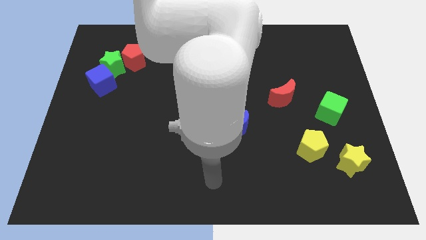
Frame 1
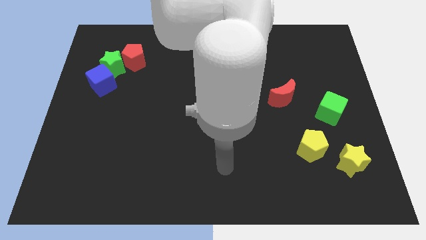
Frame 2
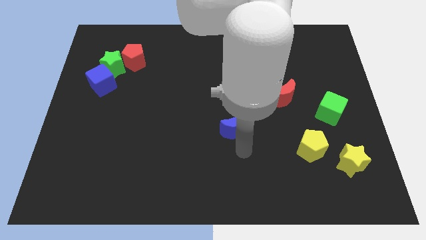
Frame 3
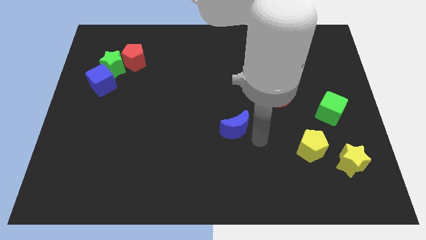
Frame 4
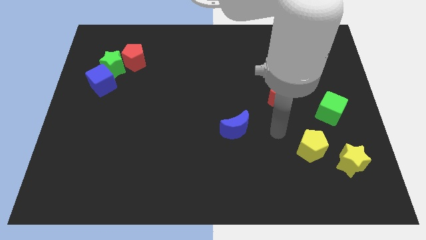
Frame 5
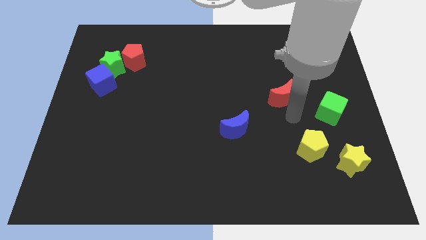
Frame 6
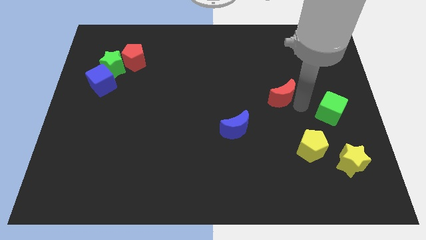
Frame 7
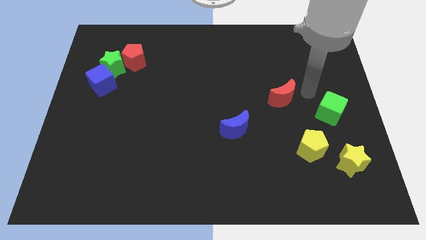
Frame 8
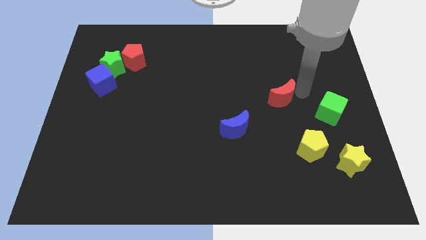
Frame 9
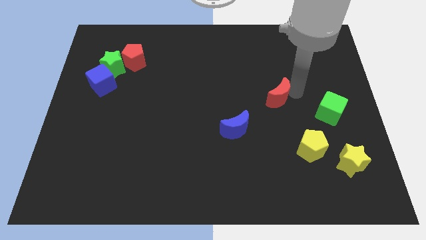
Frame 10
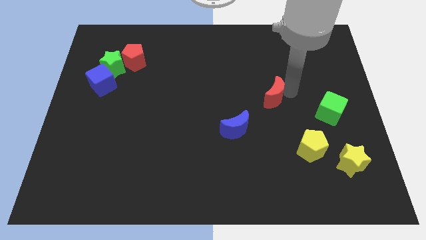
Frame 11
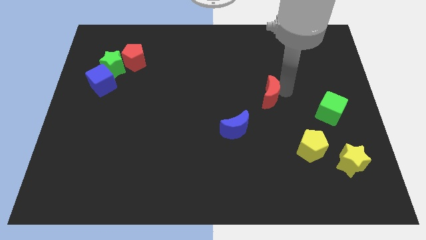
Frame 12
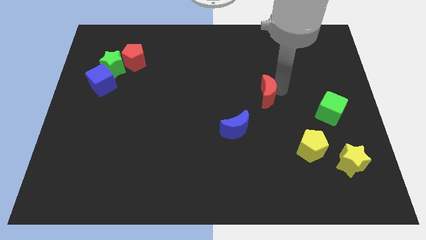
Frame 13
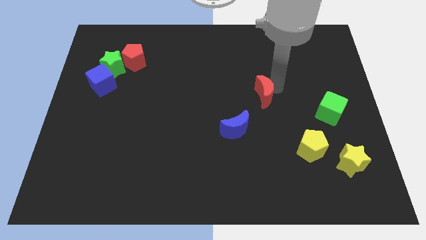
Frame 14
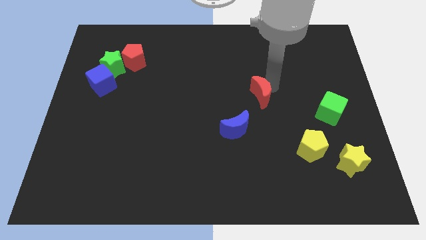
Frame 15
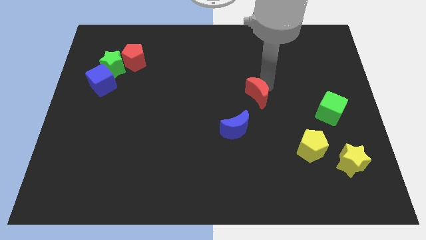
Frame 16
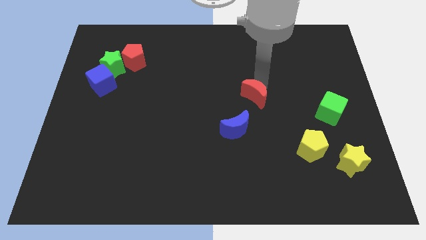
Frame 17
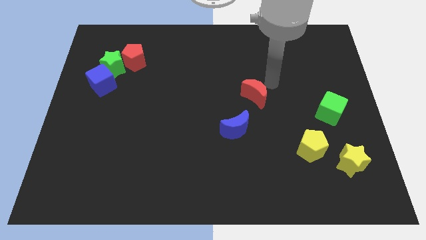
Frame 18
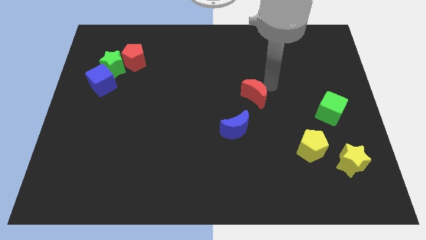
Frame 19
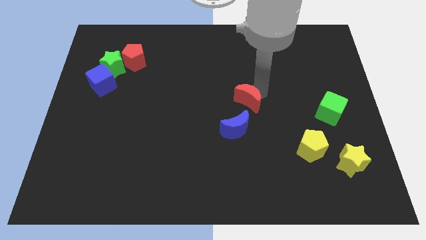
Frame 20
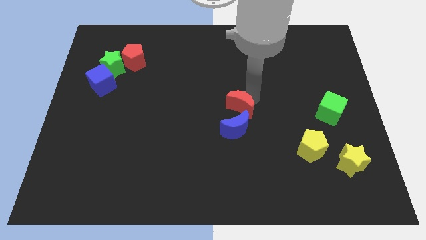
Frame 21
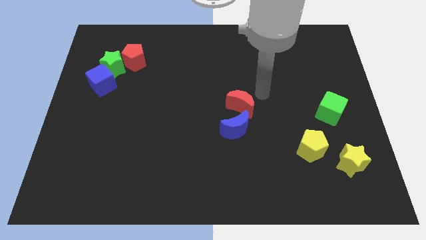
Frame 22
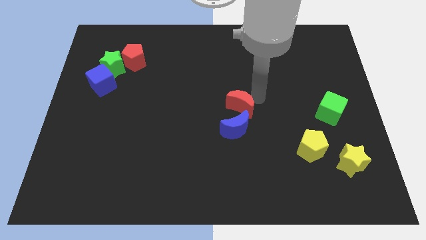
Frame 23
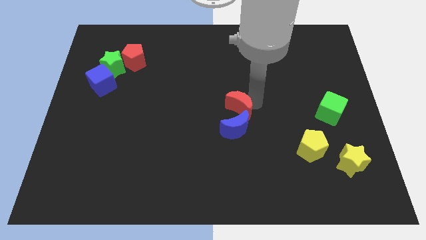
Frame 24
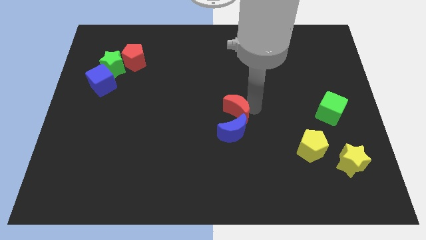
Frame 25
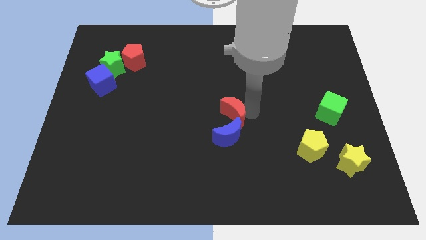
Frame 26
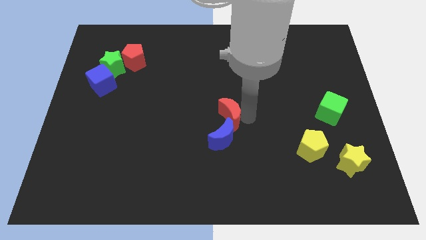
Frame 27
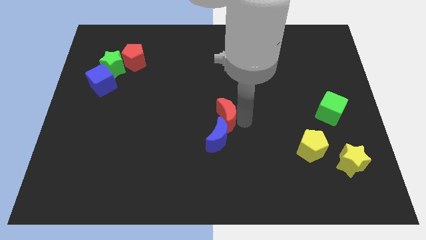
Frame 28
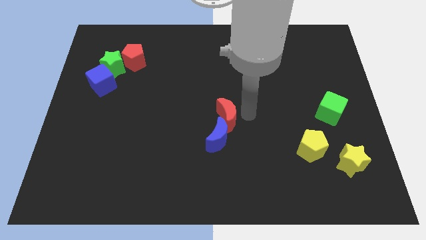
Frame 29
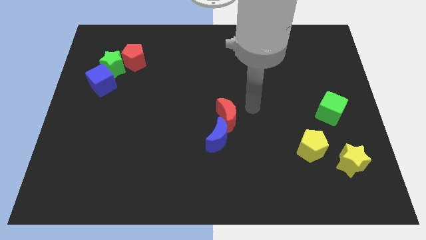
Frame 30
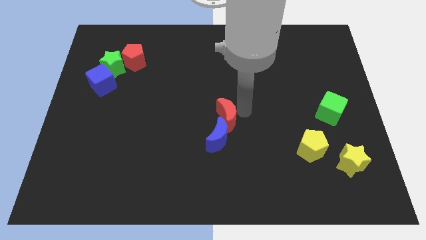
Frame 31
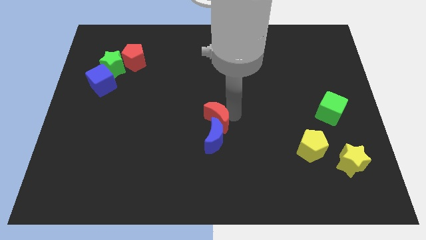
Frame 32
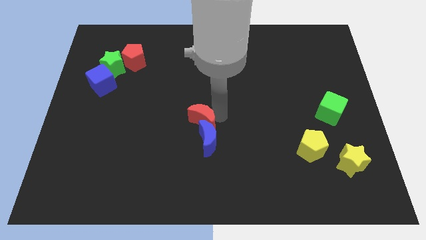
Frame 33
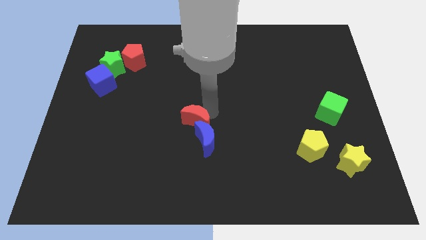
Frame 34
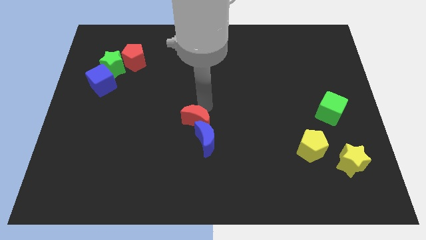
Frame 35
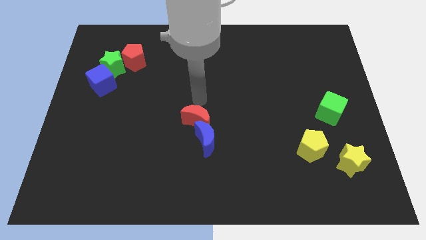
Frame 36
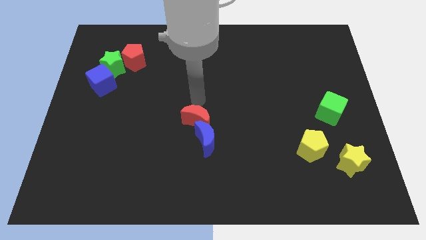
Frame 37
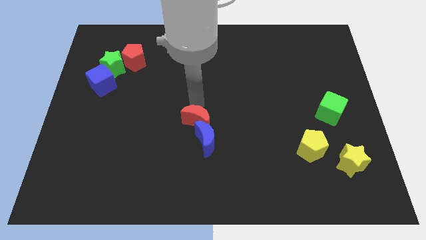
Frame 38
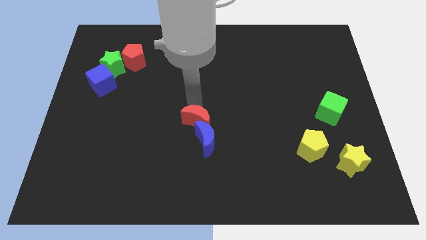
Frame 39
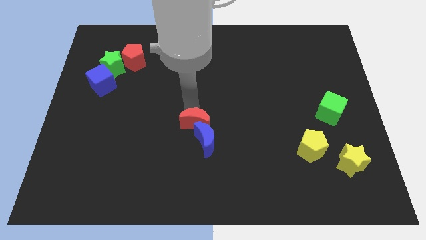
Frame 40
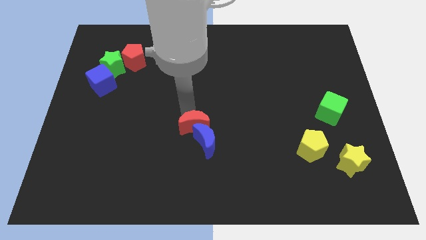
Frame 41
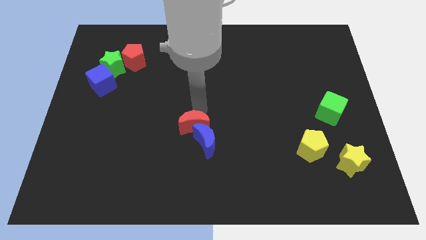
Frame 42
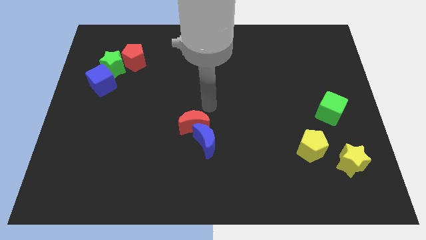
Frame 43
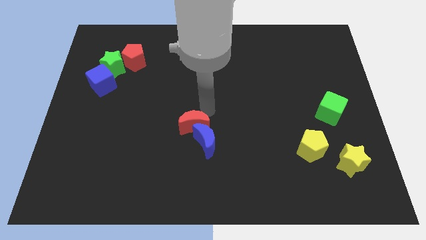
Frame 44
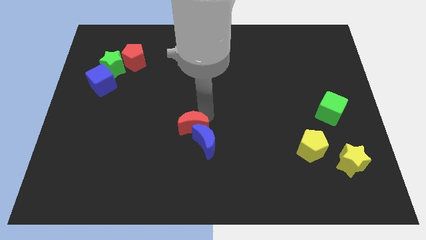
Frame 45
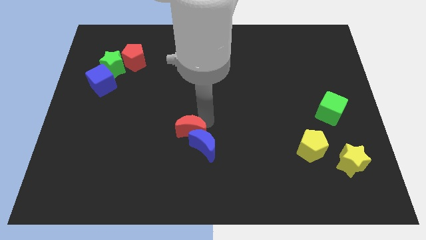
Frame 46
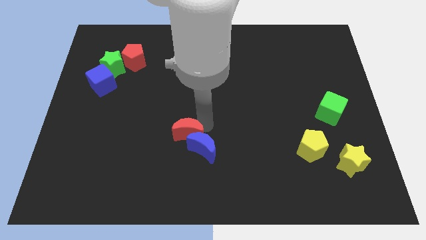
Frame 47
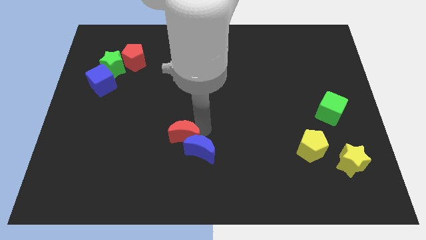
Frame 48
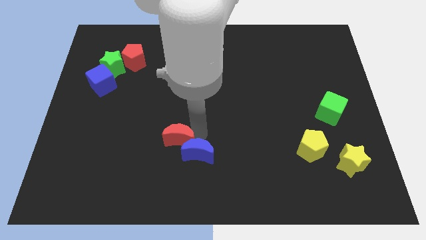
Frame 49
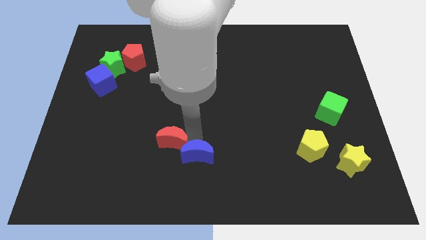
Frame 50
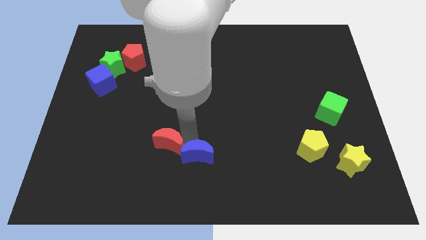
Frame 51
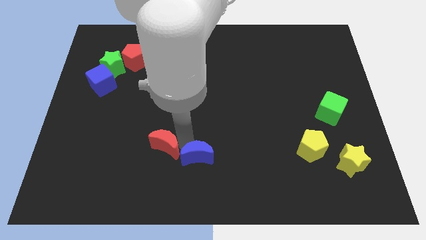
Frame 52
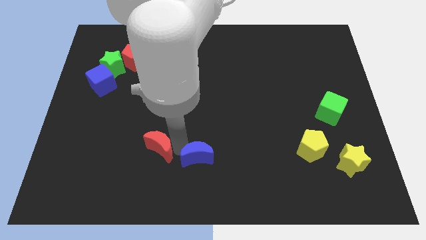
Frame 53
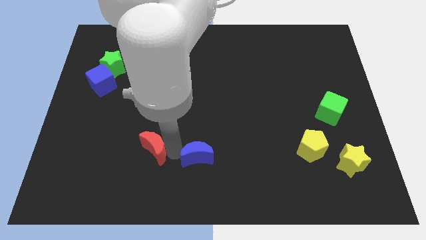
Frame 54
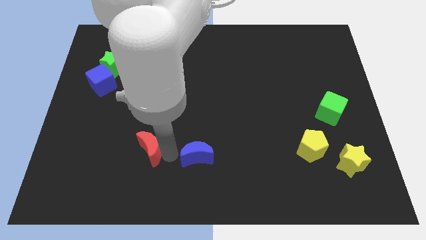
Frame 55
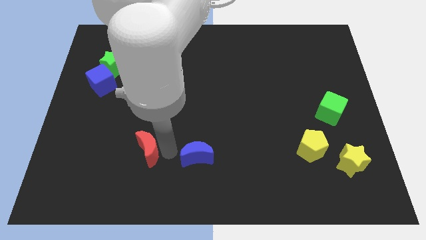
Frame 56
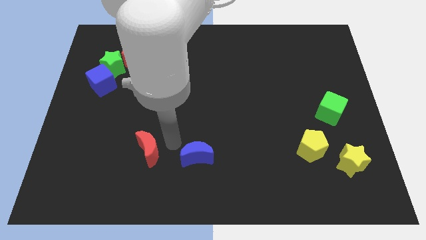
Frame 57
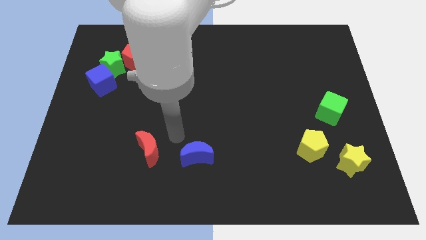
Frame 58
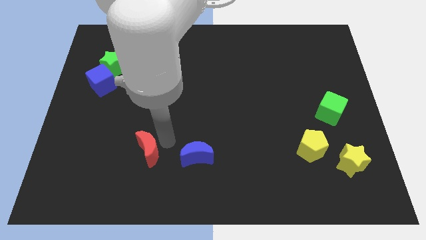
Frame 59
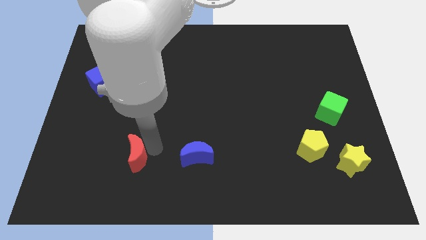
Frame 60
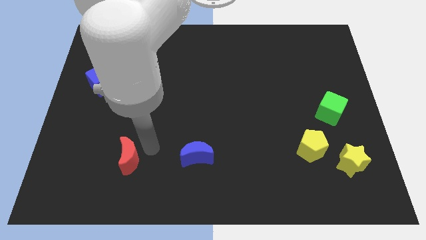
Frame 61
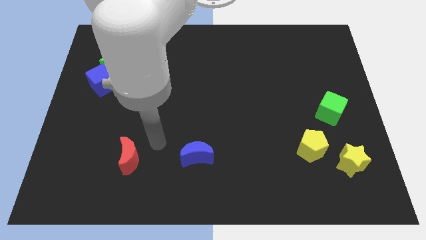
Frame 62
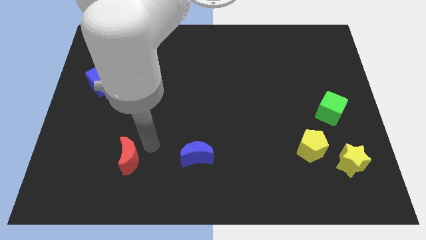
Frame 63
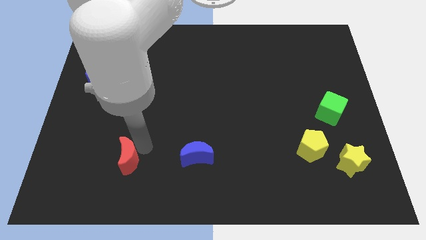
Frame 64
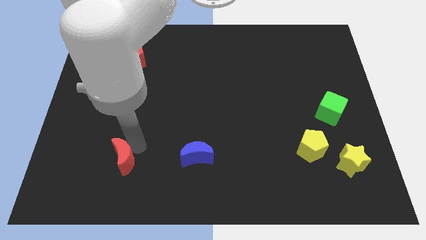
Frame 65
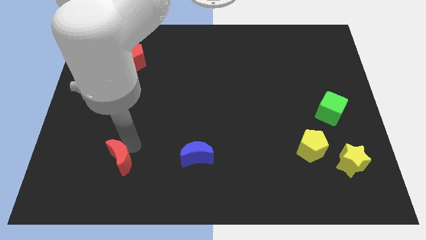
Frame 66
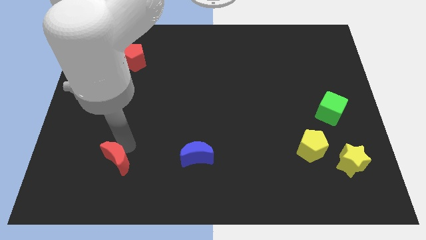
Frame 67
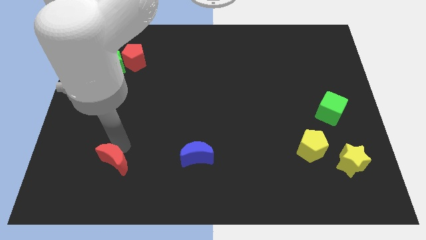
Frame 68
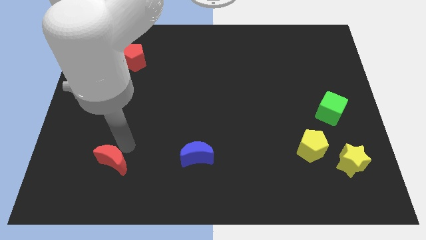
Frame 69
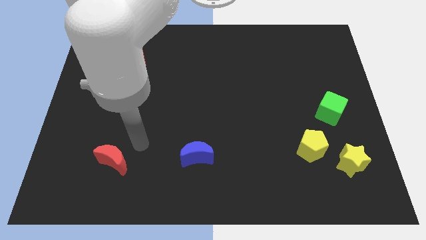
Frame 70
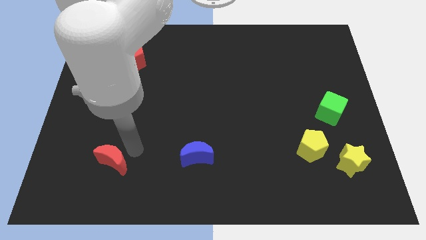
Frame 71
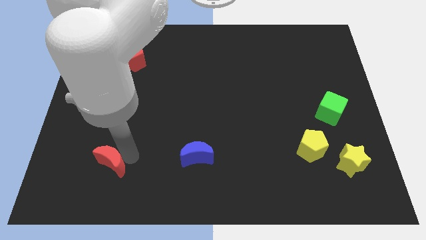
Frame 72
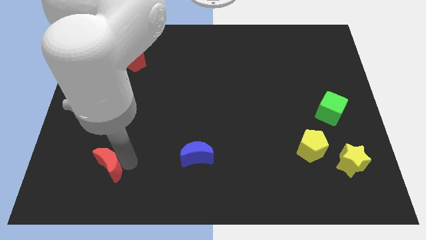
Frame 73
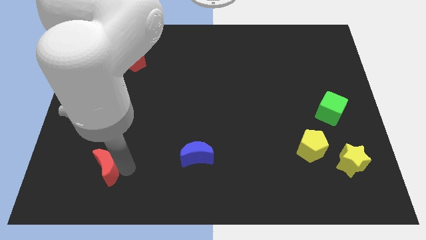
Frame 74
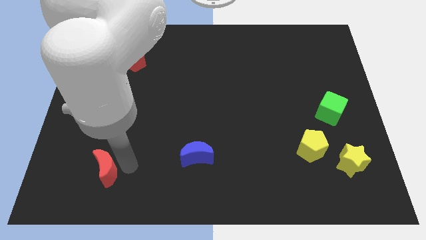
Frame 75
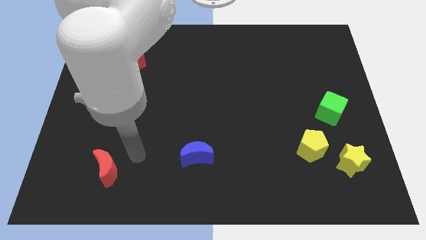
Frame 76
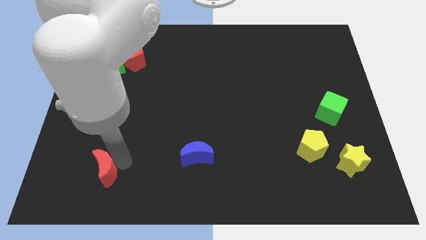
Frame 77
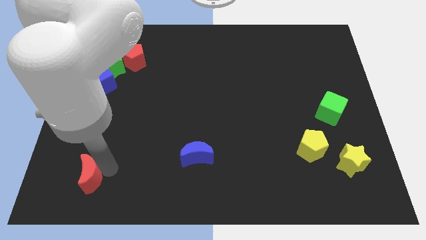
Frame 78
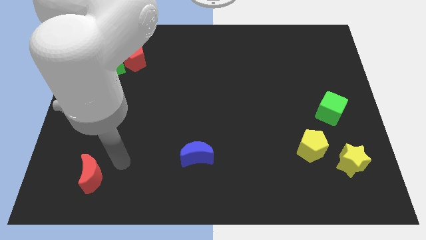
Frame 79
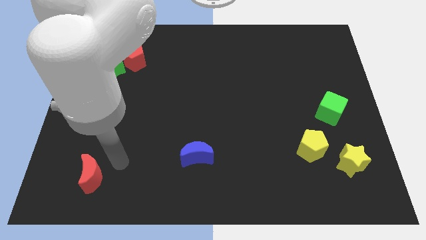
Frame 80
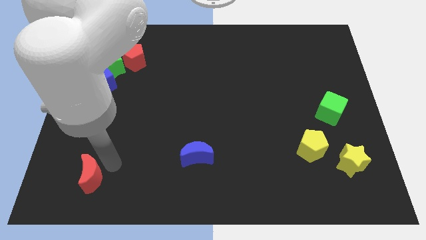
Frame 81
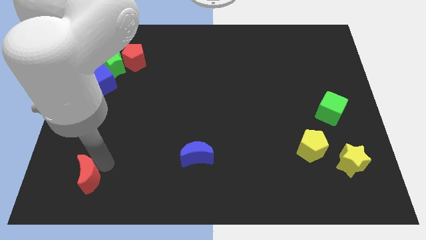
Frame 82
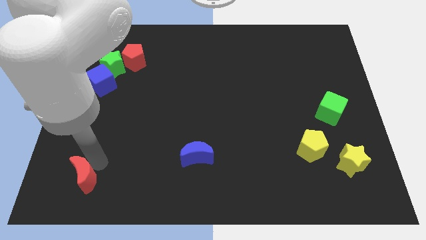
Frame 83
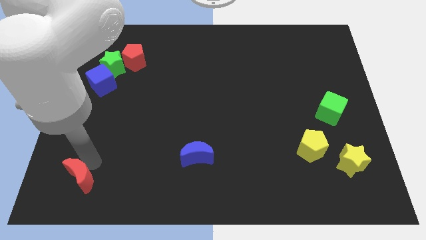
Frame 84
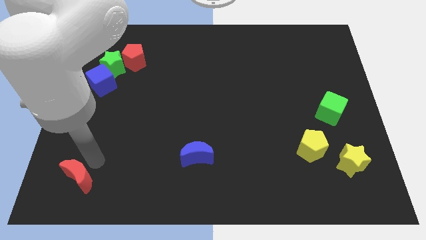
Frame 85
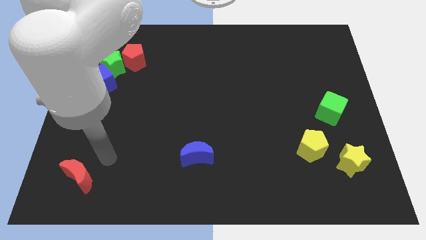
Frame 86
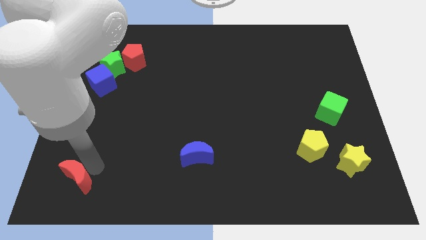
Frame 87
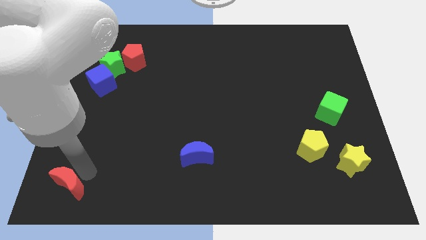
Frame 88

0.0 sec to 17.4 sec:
slide the red moon to the bottom left corner
